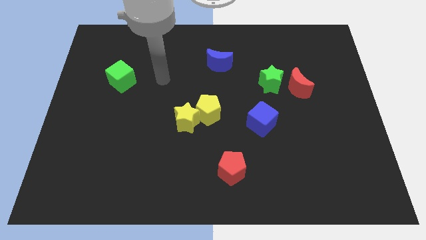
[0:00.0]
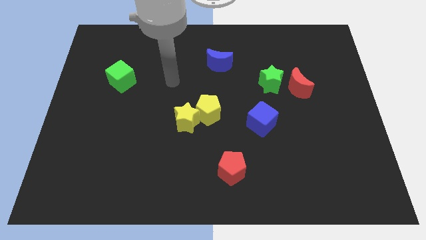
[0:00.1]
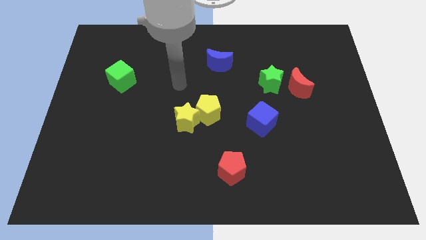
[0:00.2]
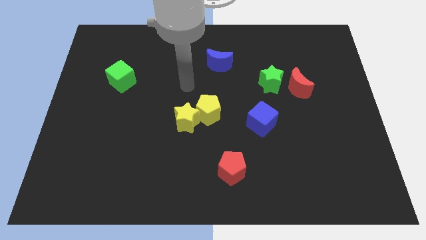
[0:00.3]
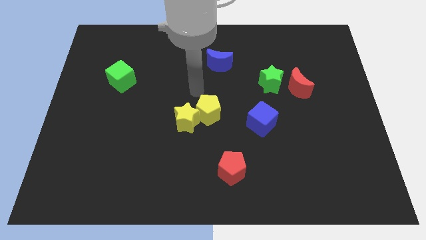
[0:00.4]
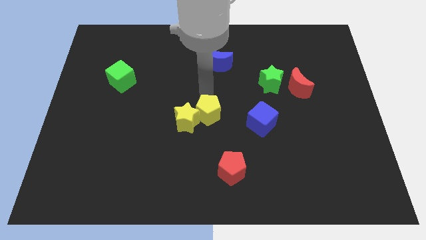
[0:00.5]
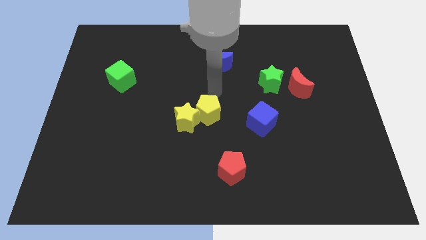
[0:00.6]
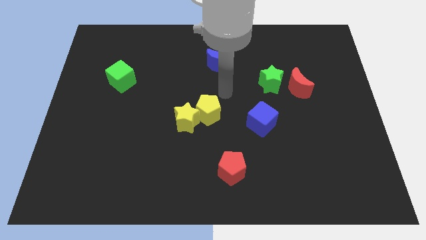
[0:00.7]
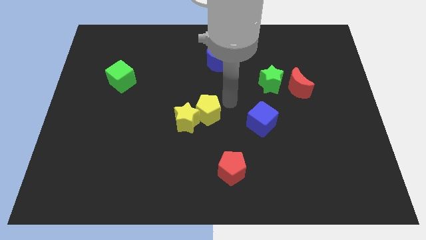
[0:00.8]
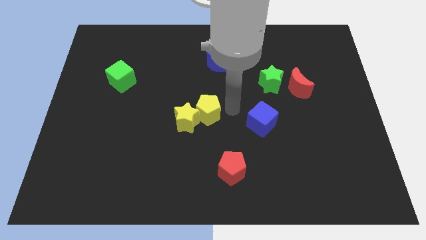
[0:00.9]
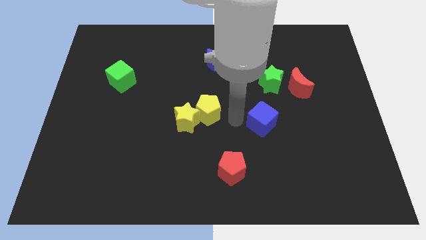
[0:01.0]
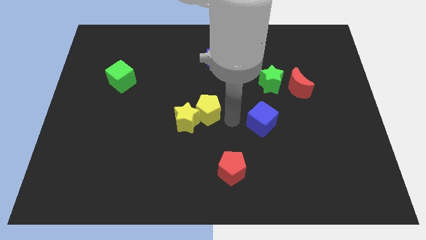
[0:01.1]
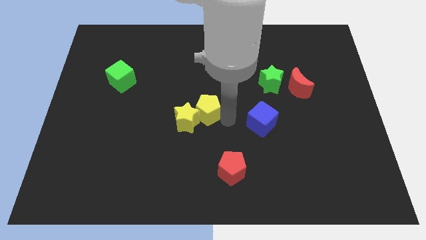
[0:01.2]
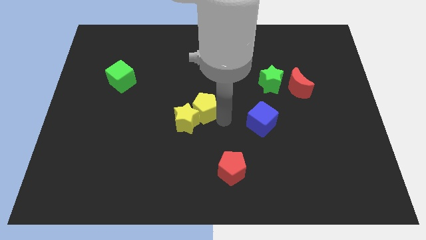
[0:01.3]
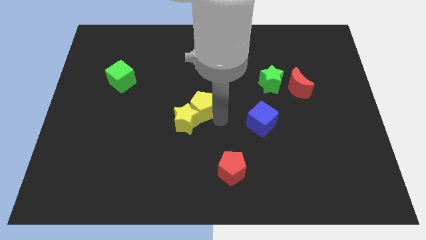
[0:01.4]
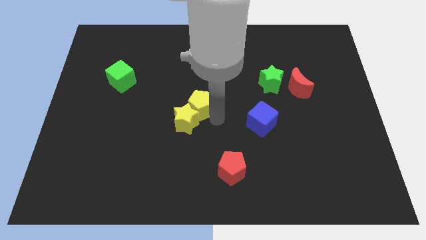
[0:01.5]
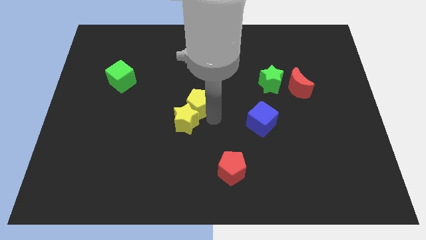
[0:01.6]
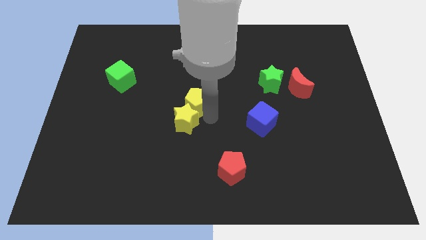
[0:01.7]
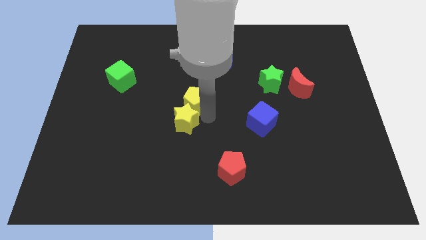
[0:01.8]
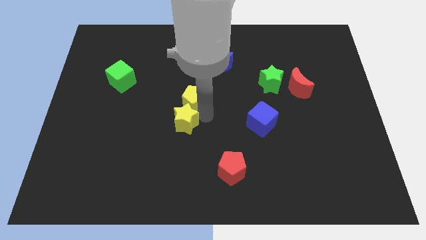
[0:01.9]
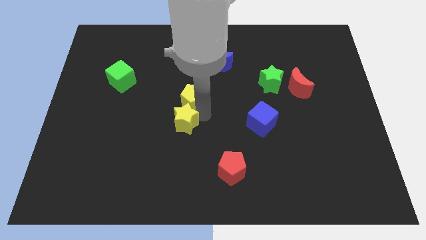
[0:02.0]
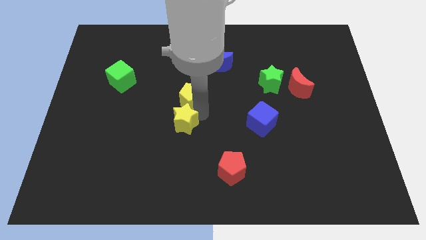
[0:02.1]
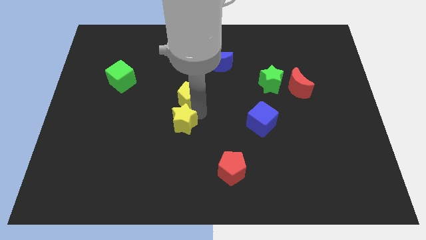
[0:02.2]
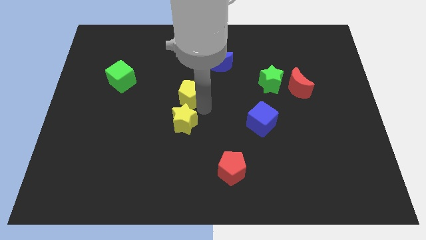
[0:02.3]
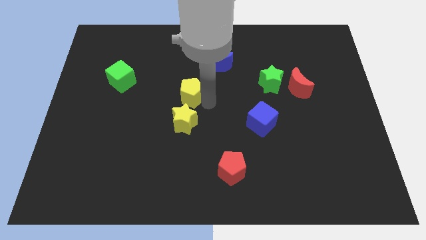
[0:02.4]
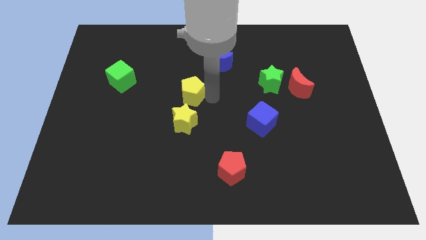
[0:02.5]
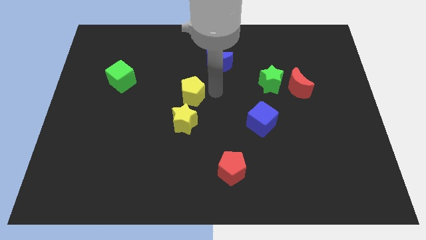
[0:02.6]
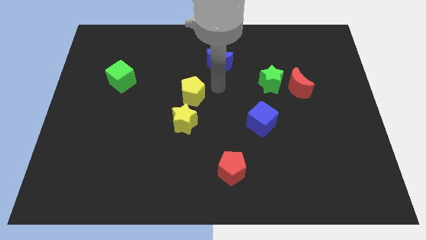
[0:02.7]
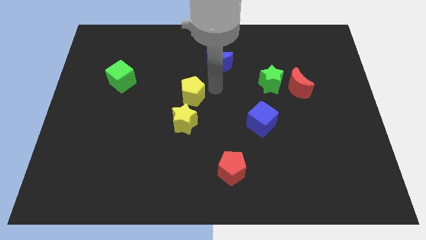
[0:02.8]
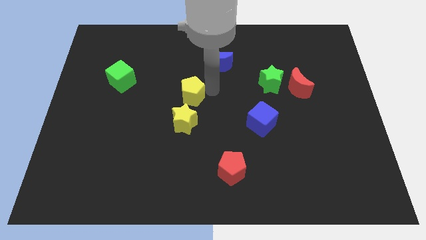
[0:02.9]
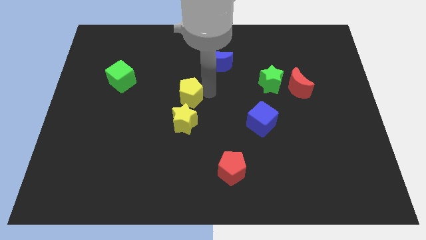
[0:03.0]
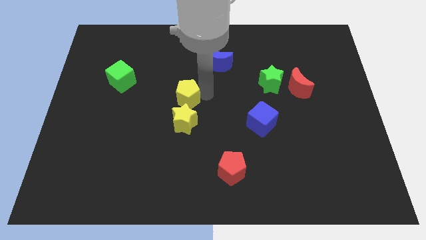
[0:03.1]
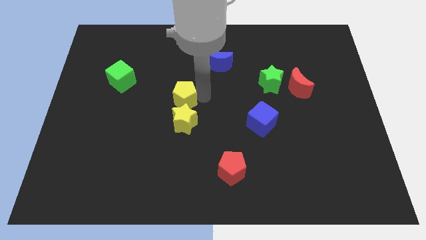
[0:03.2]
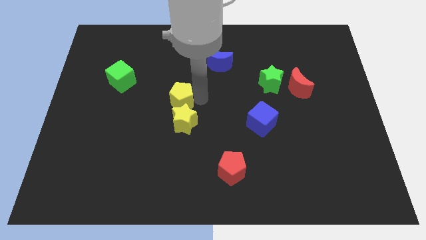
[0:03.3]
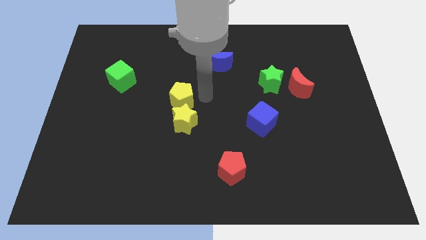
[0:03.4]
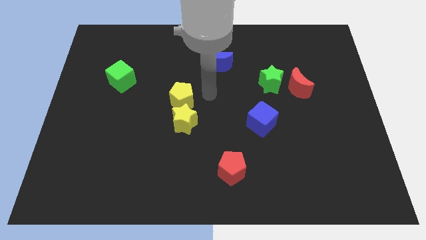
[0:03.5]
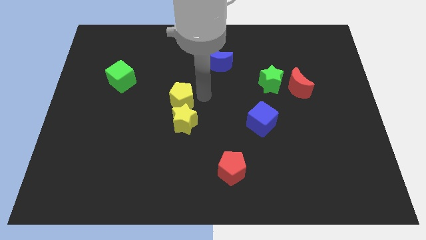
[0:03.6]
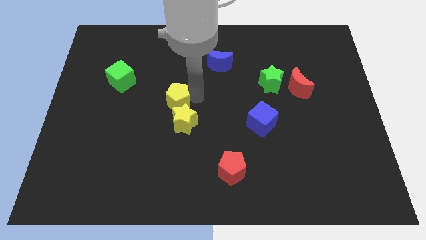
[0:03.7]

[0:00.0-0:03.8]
slide the yellow pentagon to the left slightly

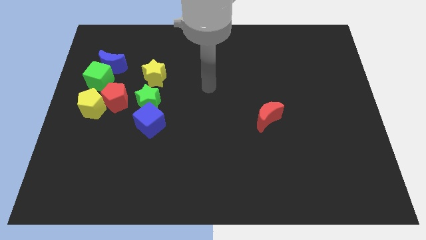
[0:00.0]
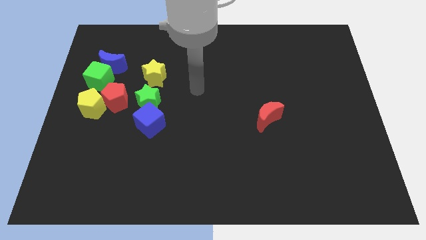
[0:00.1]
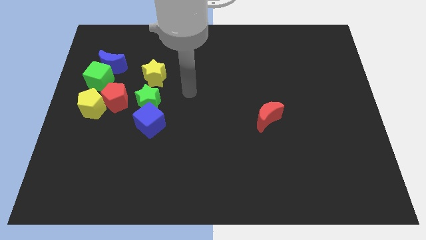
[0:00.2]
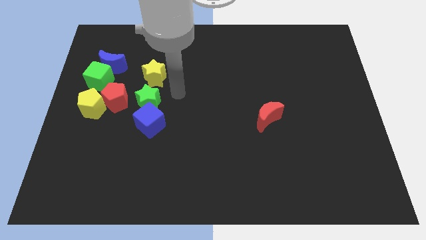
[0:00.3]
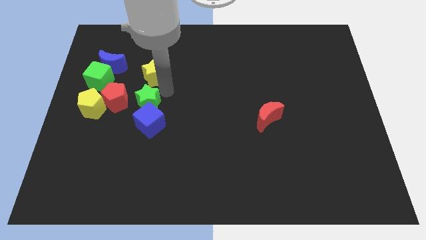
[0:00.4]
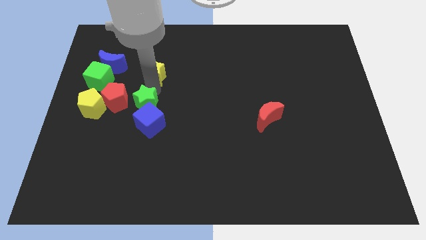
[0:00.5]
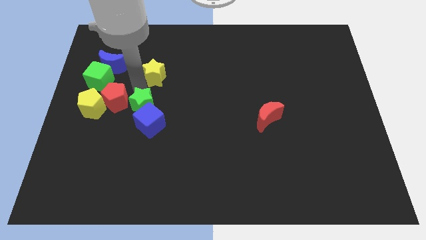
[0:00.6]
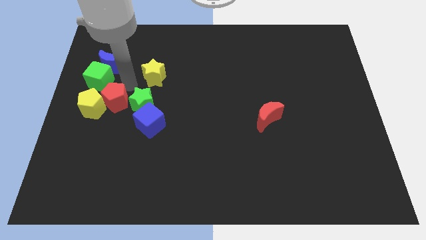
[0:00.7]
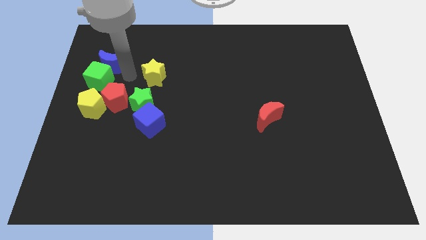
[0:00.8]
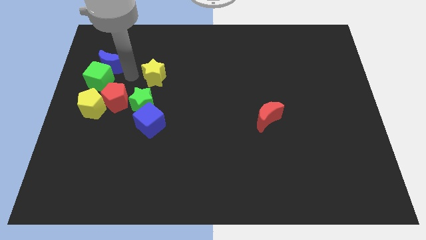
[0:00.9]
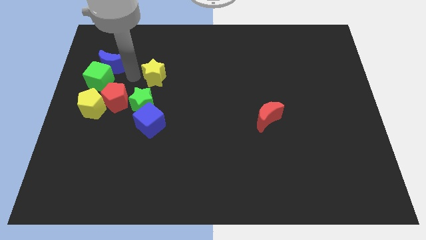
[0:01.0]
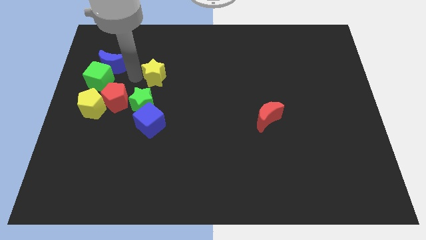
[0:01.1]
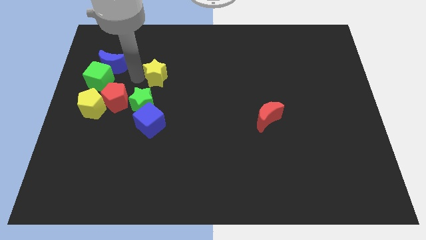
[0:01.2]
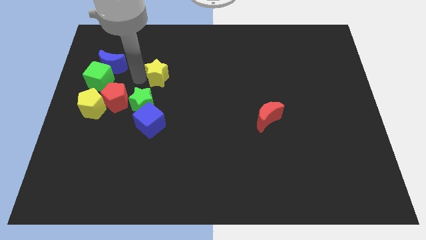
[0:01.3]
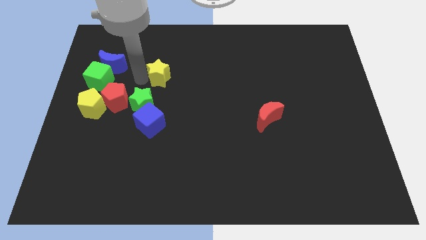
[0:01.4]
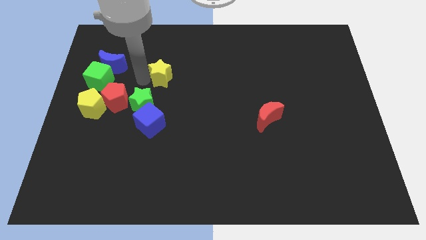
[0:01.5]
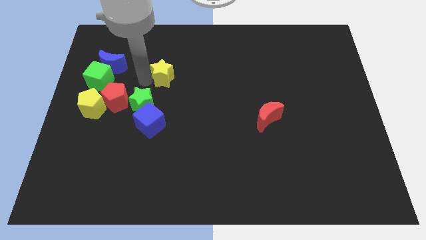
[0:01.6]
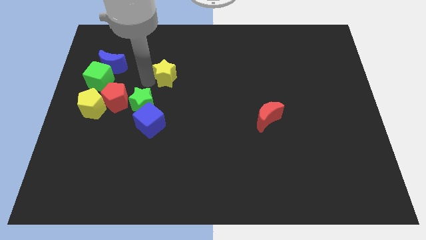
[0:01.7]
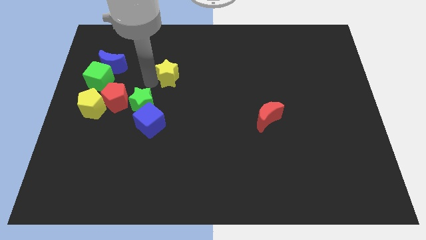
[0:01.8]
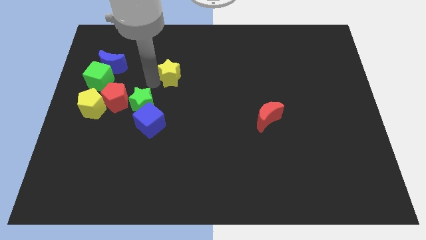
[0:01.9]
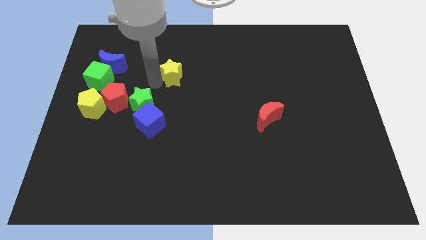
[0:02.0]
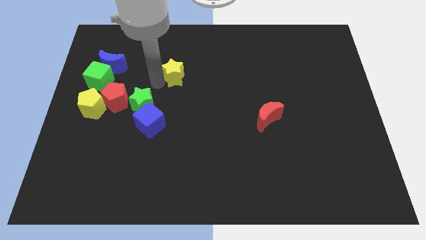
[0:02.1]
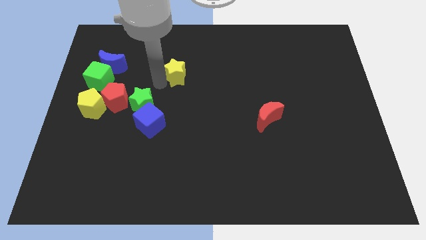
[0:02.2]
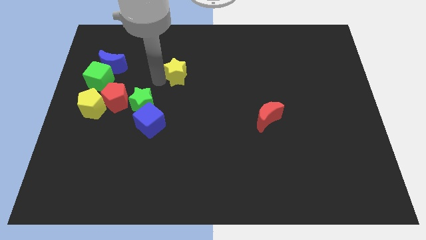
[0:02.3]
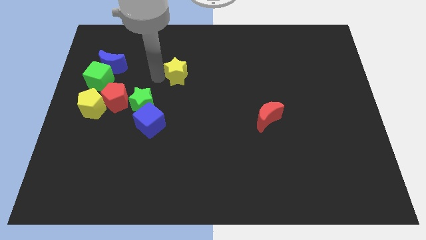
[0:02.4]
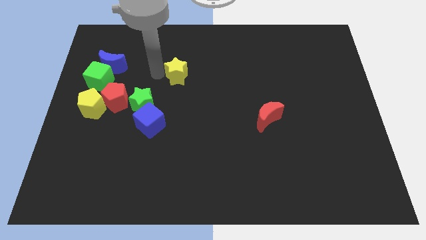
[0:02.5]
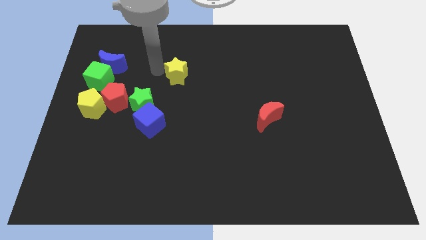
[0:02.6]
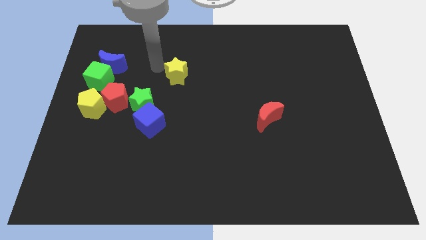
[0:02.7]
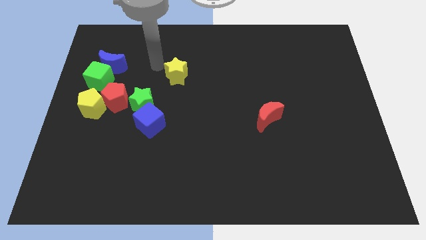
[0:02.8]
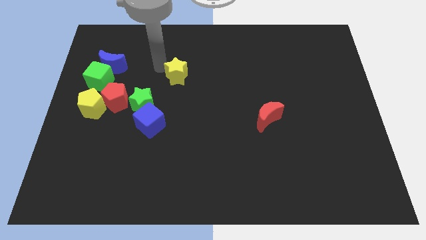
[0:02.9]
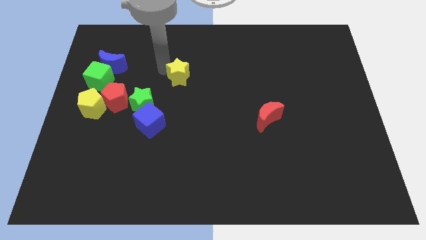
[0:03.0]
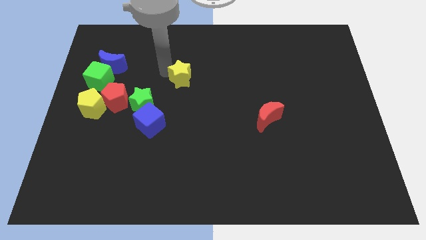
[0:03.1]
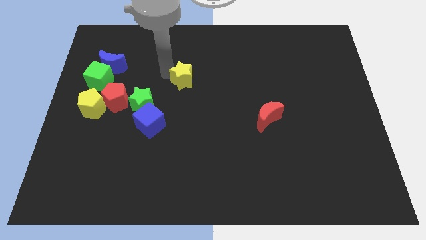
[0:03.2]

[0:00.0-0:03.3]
move the yellow star right somewhat

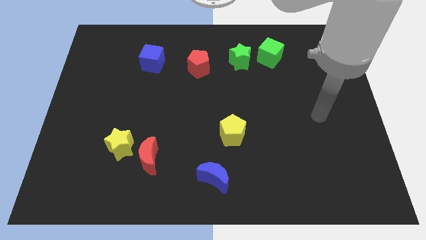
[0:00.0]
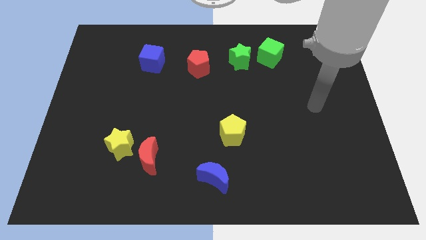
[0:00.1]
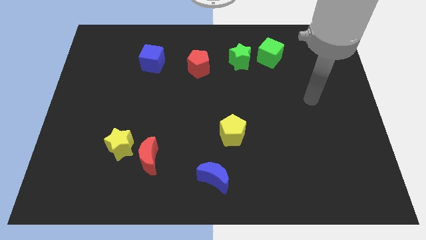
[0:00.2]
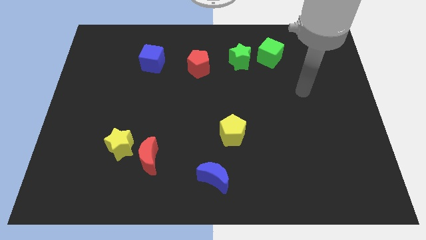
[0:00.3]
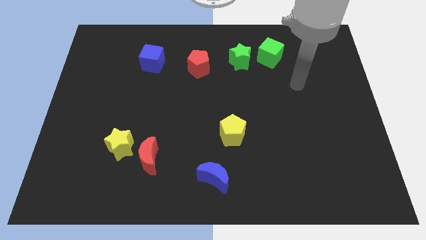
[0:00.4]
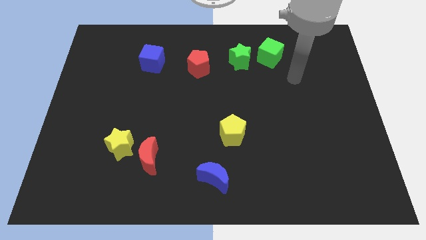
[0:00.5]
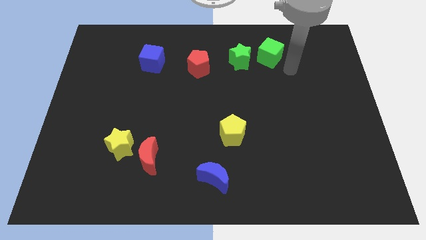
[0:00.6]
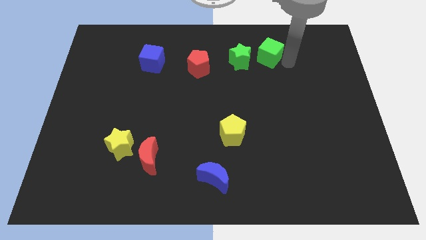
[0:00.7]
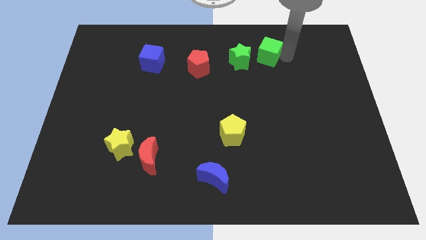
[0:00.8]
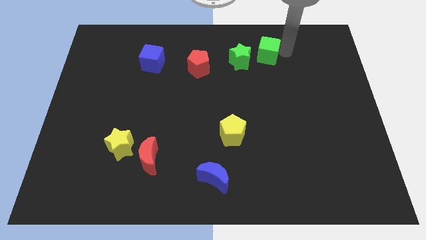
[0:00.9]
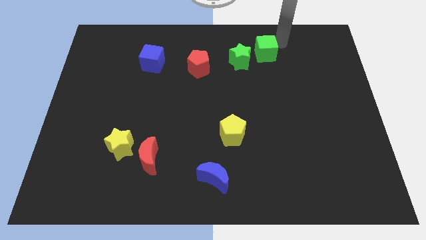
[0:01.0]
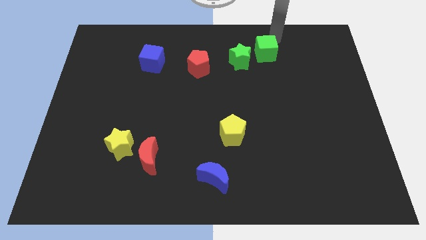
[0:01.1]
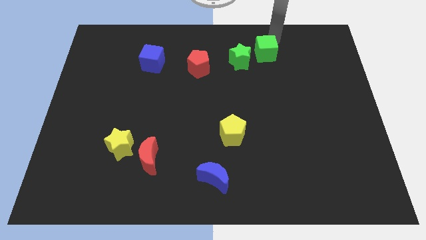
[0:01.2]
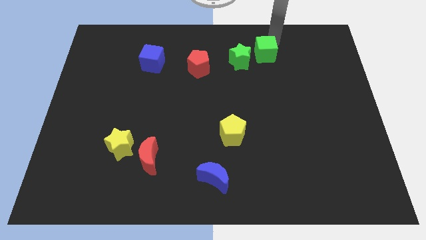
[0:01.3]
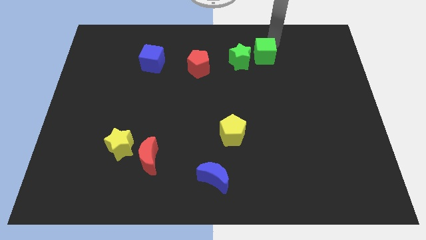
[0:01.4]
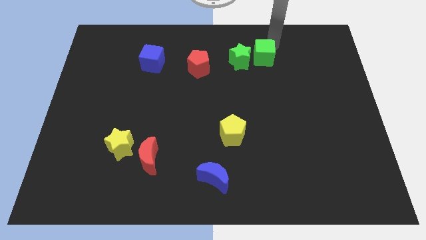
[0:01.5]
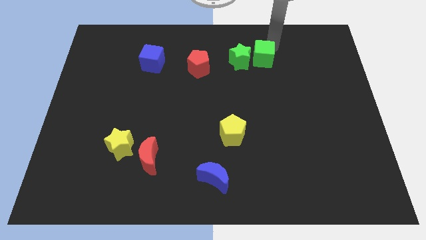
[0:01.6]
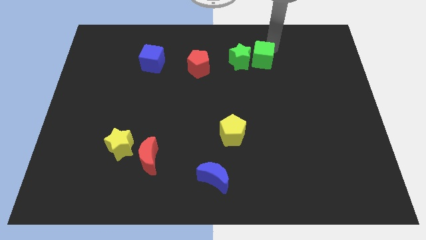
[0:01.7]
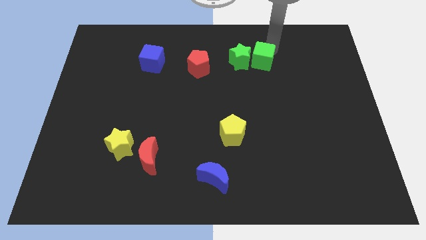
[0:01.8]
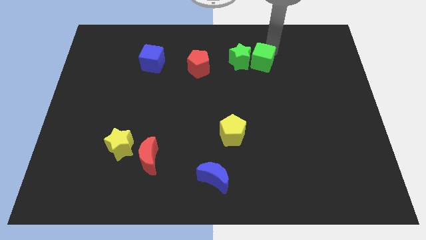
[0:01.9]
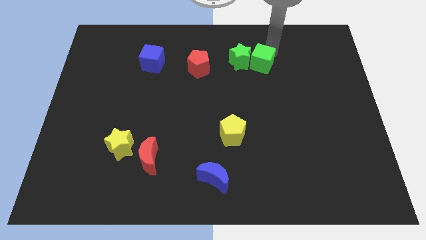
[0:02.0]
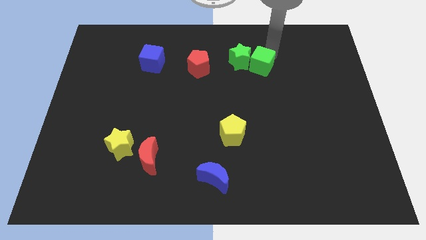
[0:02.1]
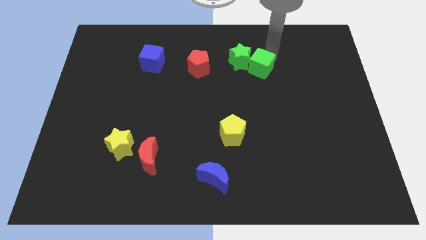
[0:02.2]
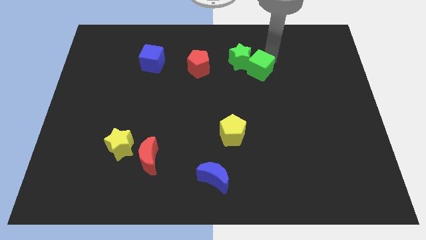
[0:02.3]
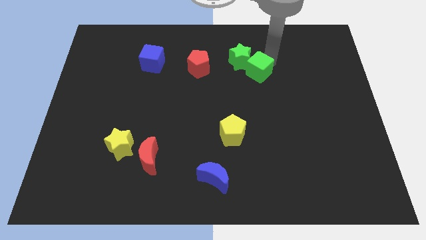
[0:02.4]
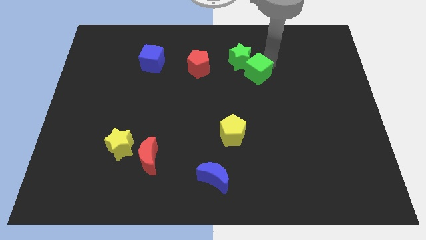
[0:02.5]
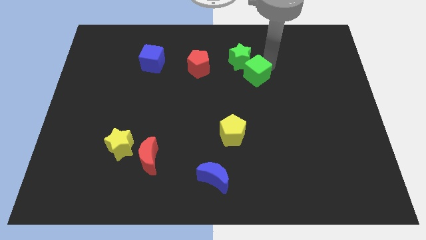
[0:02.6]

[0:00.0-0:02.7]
slide the green cube a bit downwards and then left
